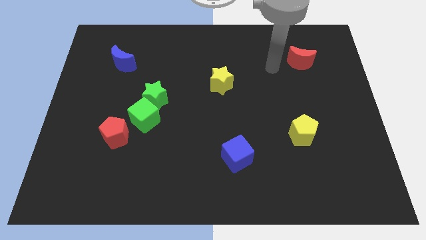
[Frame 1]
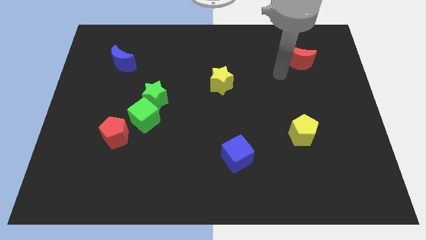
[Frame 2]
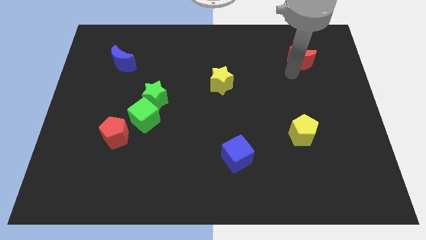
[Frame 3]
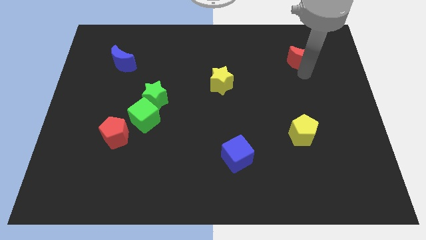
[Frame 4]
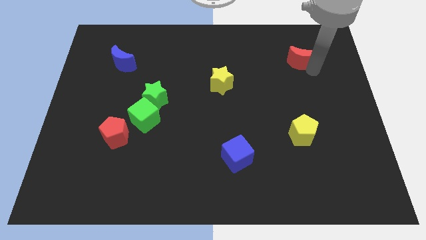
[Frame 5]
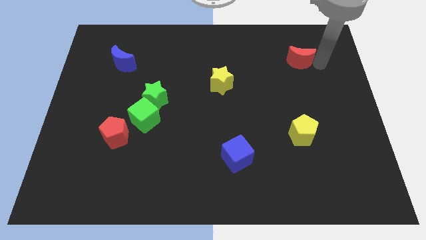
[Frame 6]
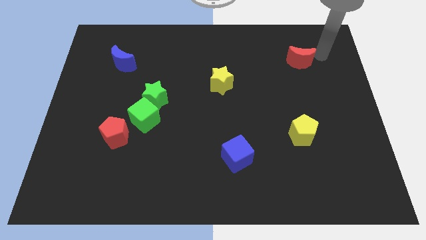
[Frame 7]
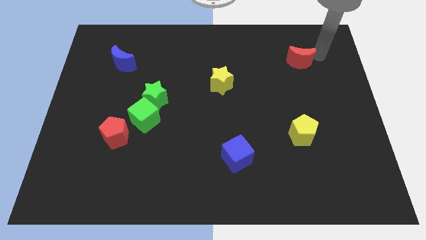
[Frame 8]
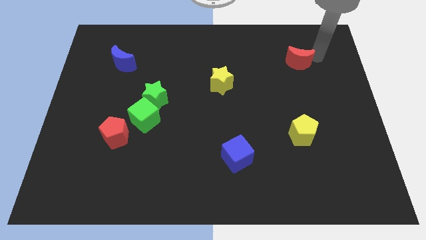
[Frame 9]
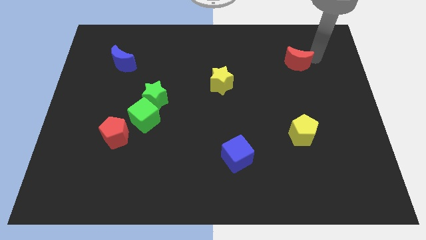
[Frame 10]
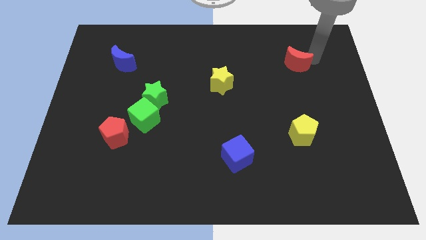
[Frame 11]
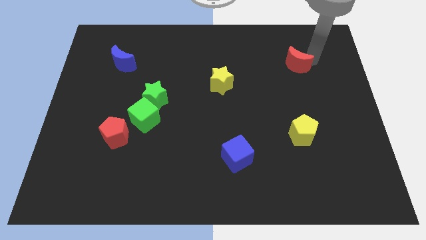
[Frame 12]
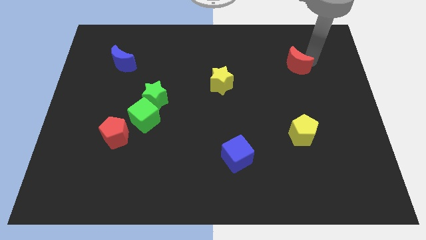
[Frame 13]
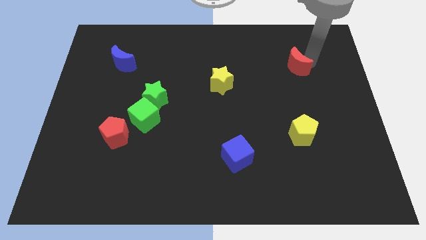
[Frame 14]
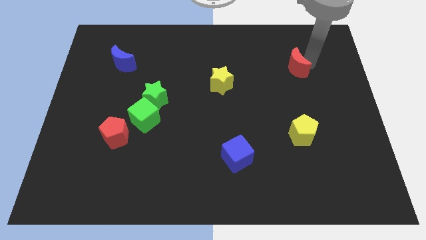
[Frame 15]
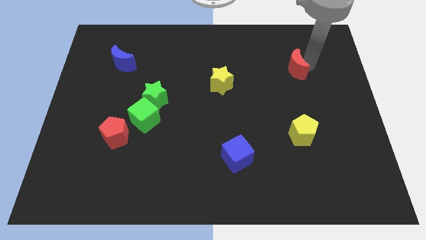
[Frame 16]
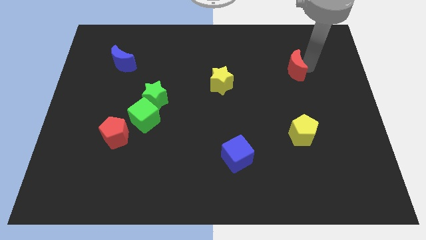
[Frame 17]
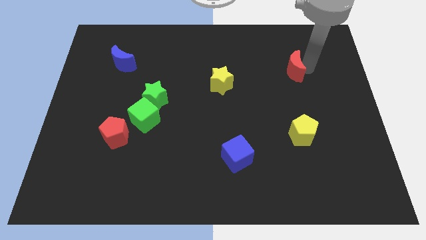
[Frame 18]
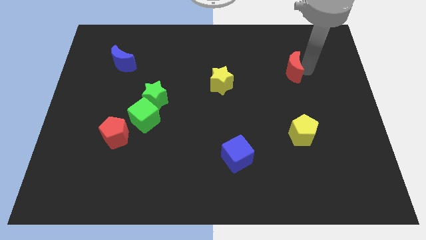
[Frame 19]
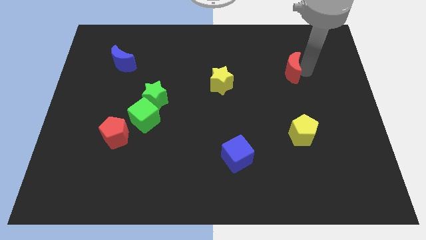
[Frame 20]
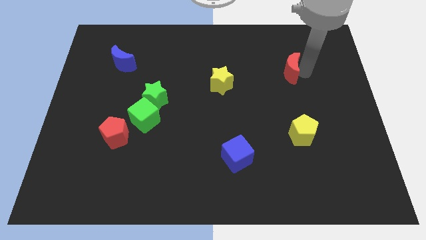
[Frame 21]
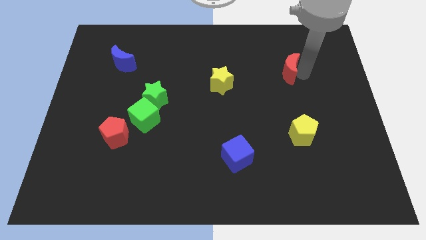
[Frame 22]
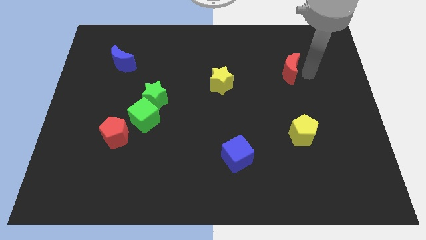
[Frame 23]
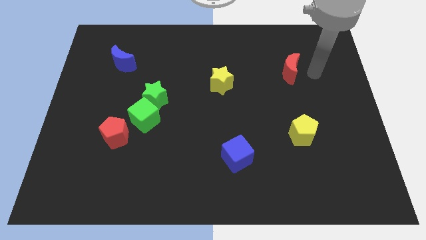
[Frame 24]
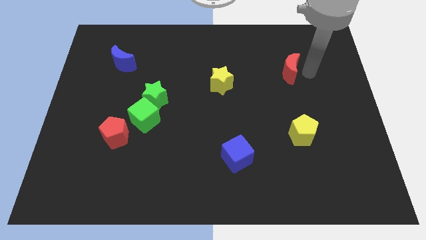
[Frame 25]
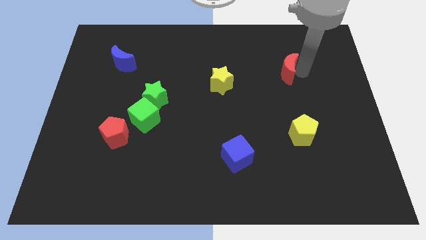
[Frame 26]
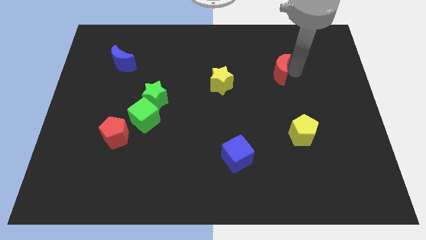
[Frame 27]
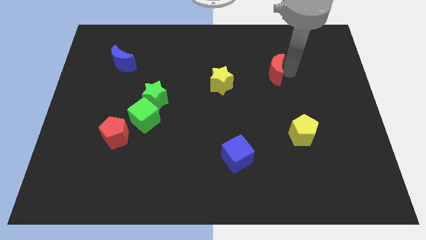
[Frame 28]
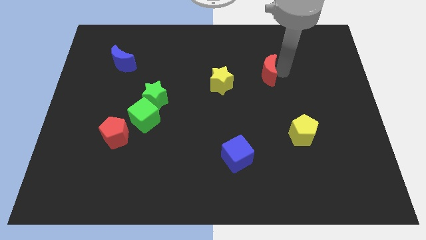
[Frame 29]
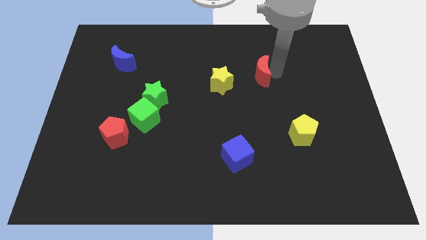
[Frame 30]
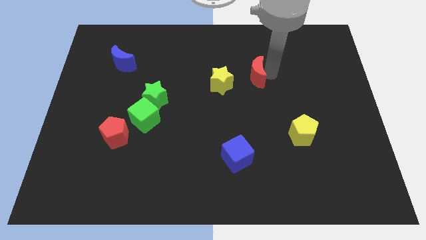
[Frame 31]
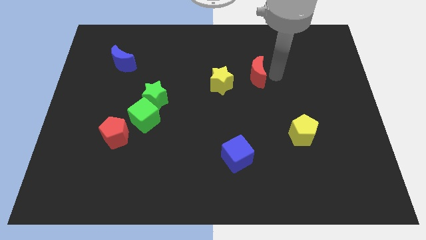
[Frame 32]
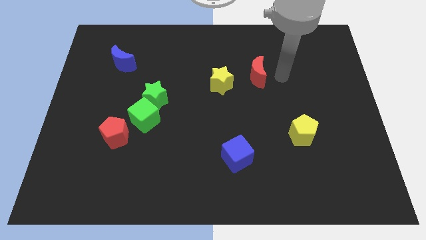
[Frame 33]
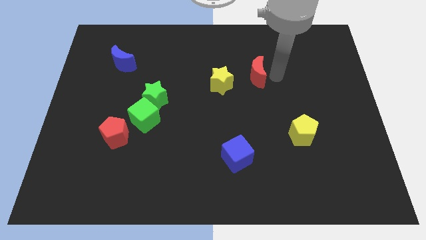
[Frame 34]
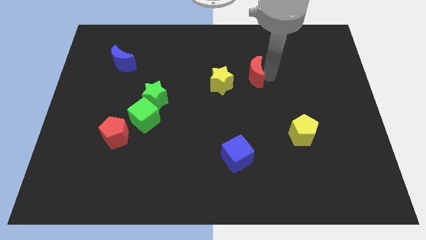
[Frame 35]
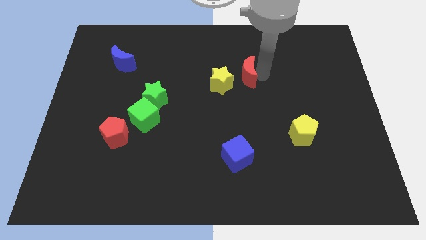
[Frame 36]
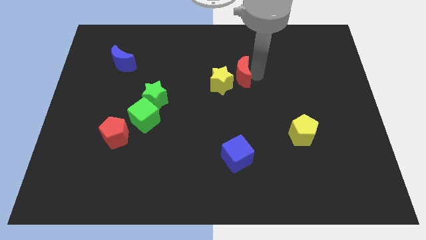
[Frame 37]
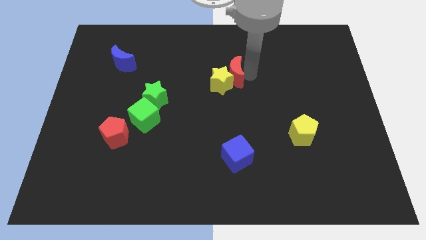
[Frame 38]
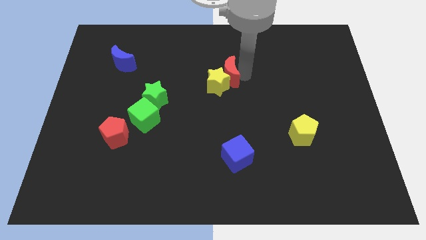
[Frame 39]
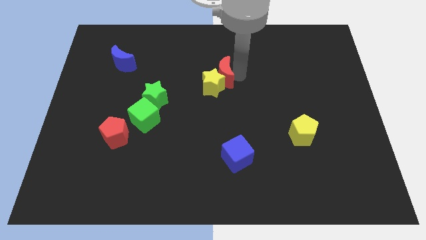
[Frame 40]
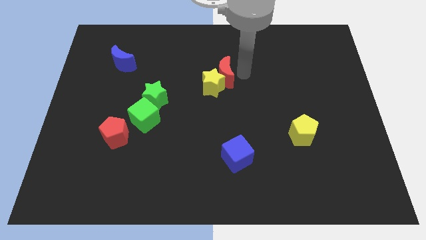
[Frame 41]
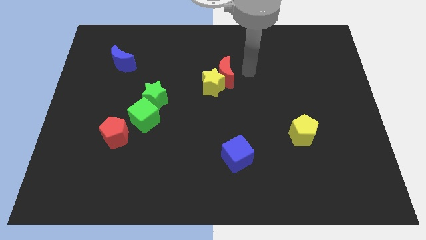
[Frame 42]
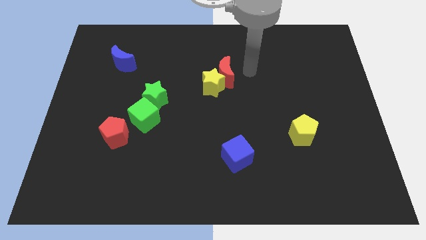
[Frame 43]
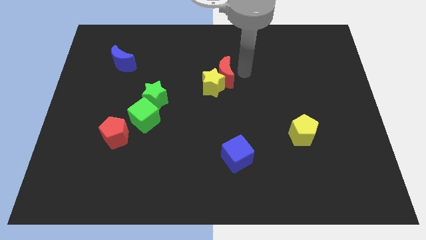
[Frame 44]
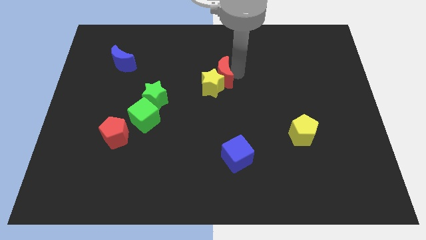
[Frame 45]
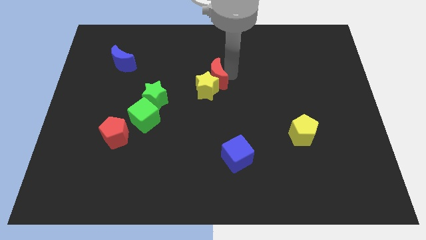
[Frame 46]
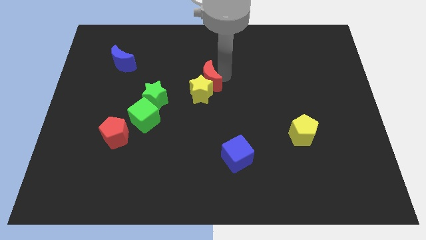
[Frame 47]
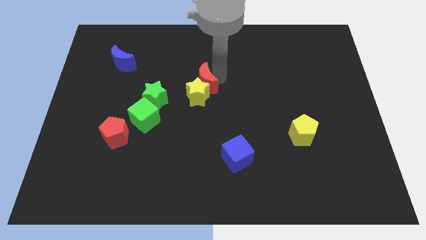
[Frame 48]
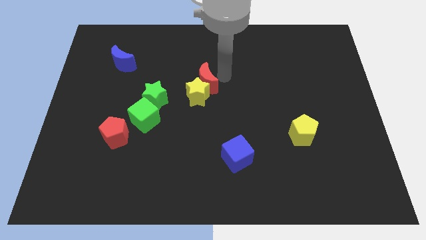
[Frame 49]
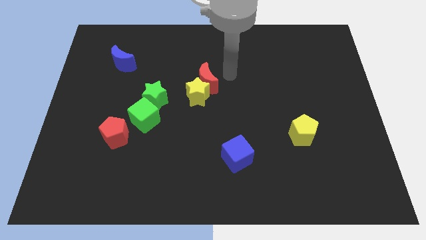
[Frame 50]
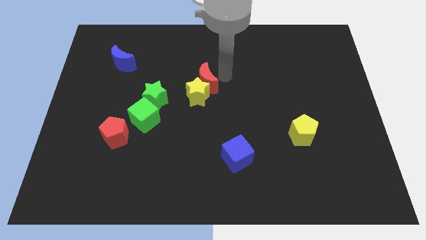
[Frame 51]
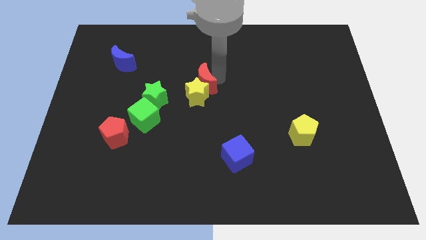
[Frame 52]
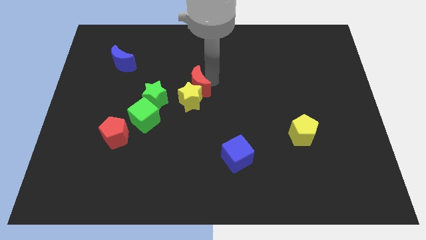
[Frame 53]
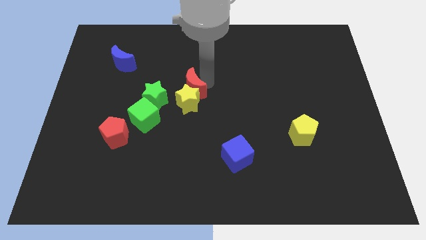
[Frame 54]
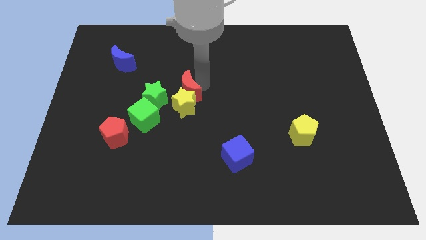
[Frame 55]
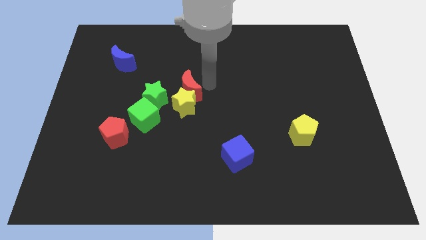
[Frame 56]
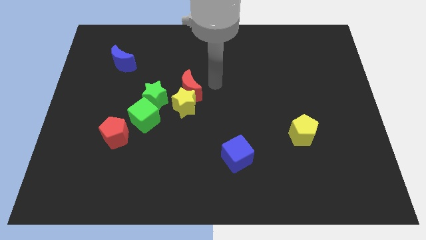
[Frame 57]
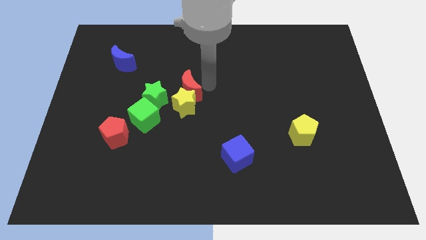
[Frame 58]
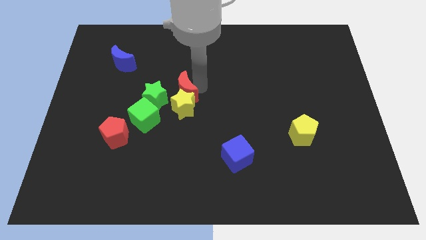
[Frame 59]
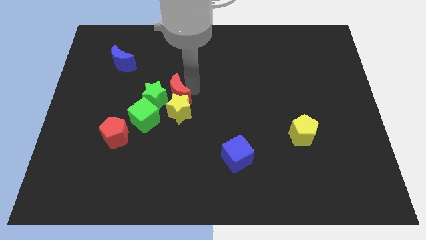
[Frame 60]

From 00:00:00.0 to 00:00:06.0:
slide the red moon to the green star

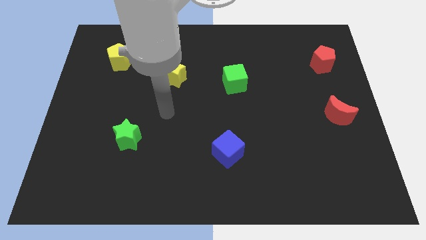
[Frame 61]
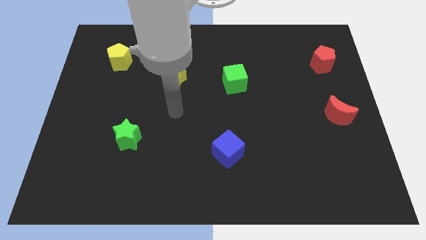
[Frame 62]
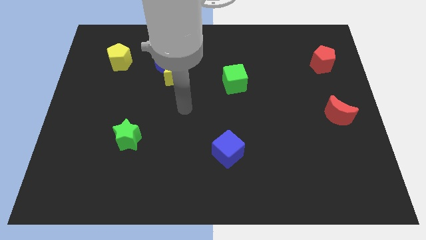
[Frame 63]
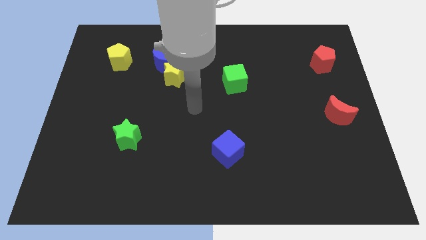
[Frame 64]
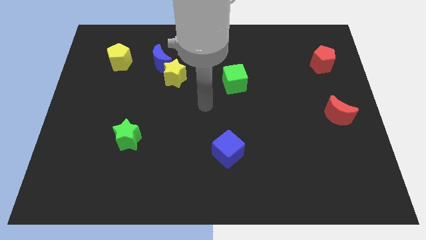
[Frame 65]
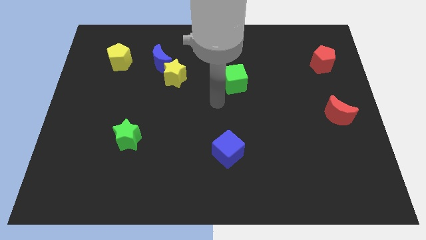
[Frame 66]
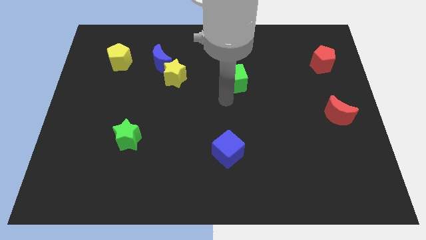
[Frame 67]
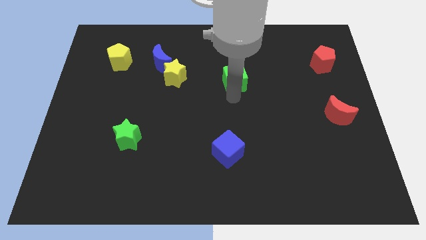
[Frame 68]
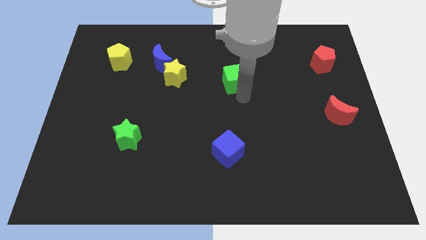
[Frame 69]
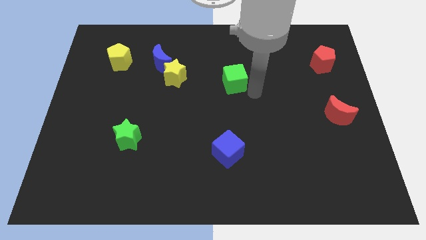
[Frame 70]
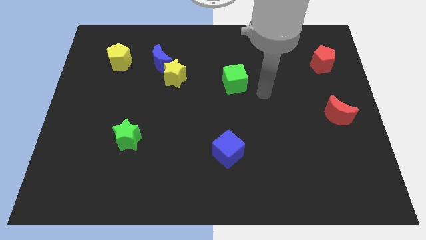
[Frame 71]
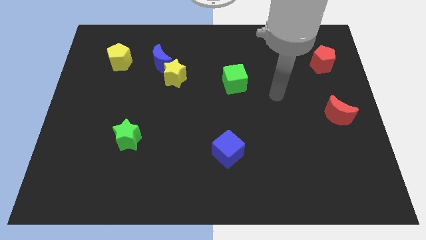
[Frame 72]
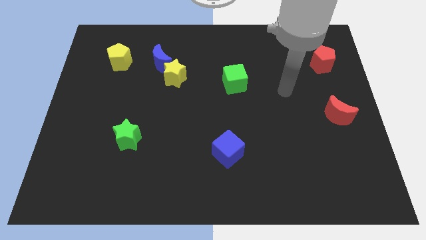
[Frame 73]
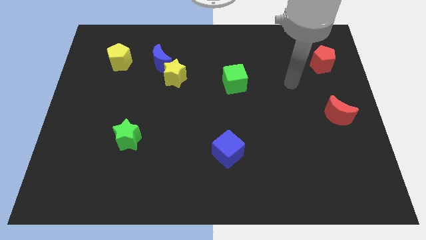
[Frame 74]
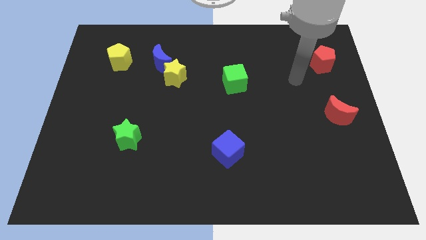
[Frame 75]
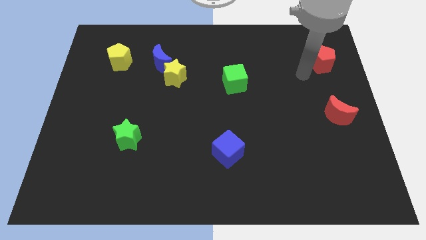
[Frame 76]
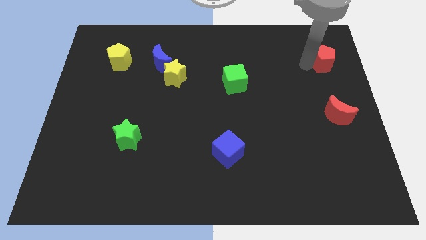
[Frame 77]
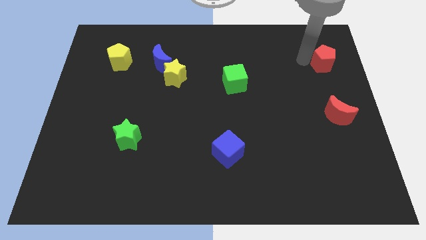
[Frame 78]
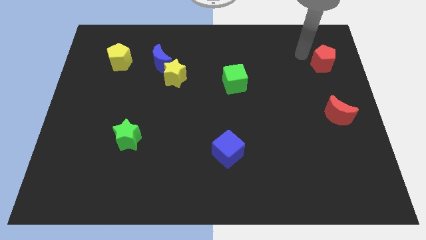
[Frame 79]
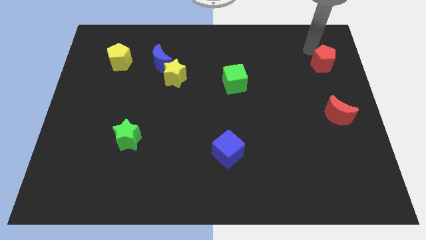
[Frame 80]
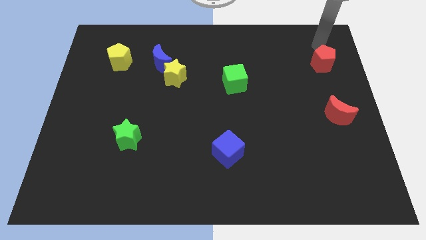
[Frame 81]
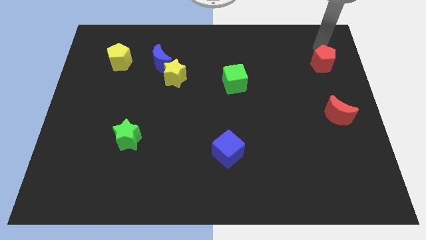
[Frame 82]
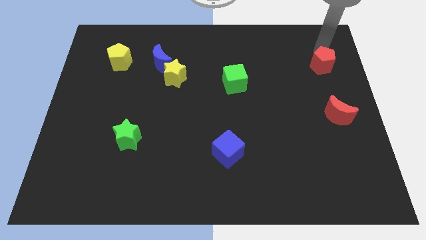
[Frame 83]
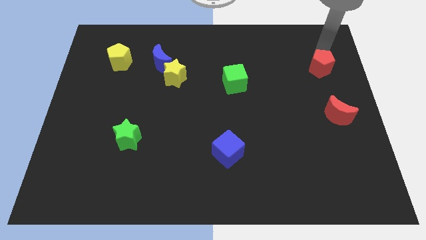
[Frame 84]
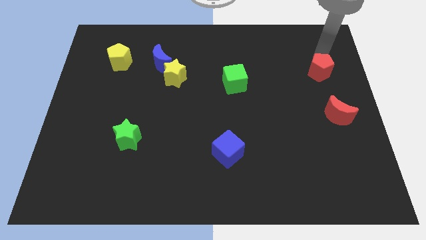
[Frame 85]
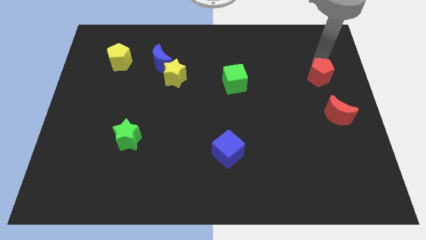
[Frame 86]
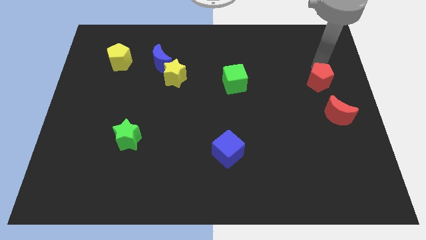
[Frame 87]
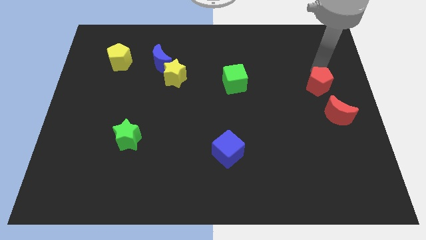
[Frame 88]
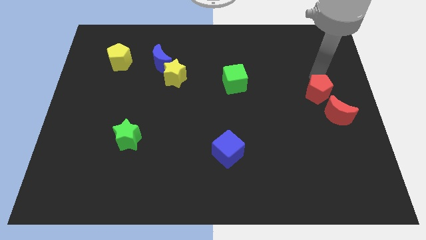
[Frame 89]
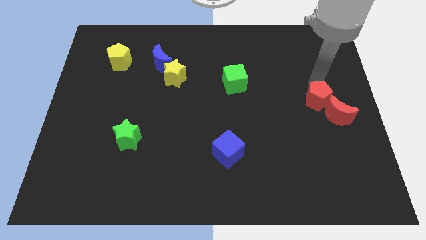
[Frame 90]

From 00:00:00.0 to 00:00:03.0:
put the red pentagon close to the red moon
